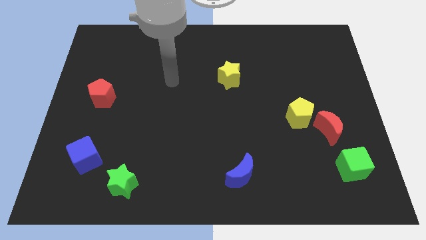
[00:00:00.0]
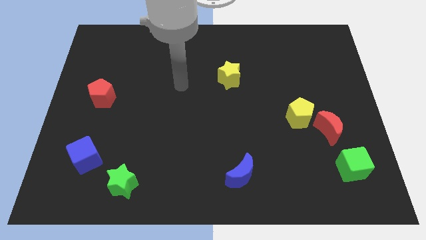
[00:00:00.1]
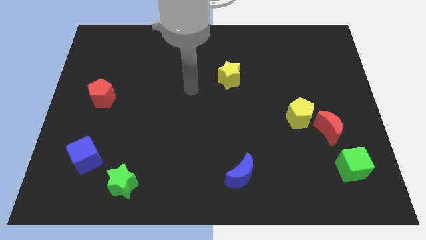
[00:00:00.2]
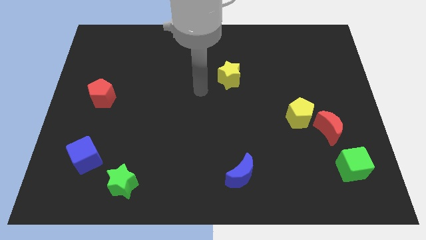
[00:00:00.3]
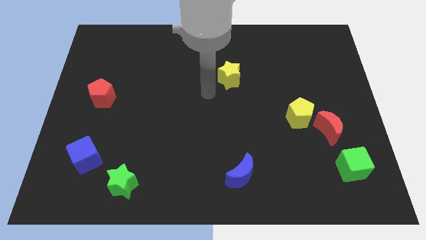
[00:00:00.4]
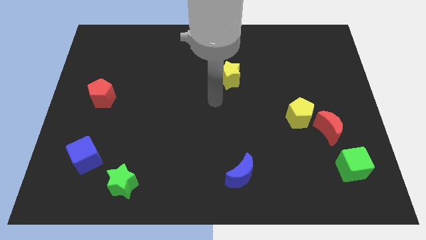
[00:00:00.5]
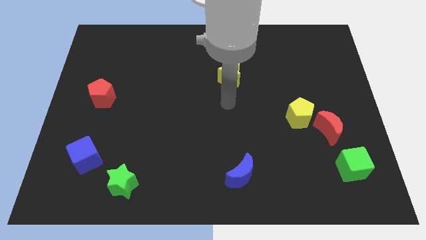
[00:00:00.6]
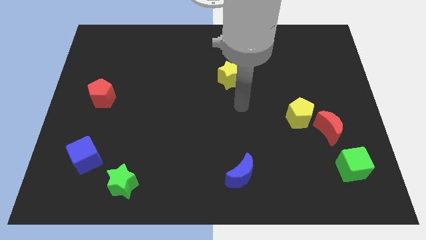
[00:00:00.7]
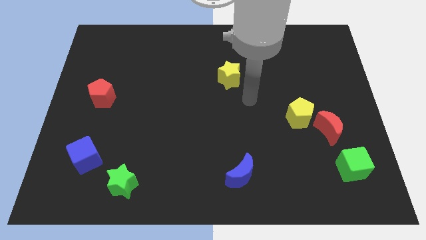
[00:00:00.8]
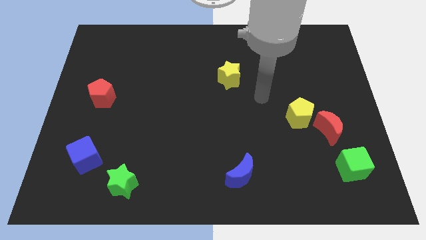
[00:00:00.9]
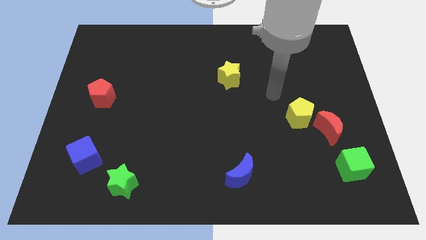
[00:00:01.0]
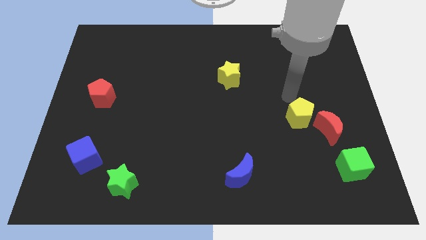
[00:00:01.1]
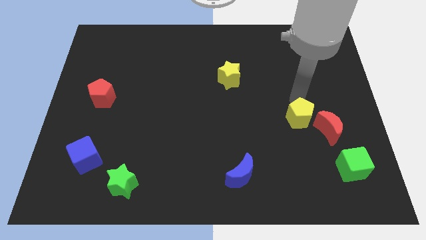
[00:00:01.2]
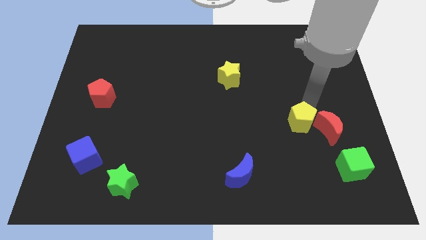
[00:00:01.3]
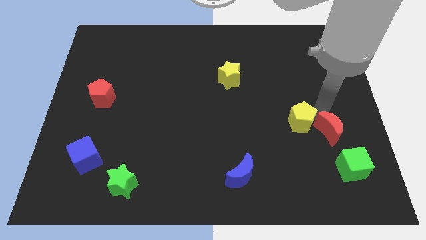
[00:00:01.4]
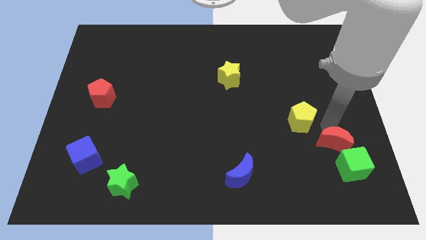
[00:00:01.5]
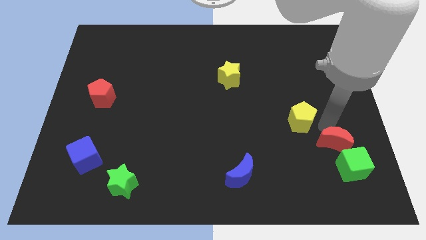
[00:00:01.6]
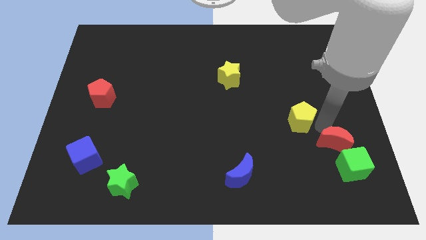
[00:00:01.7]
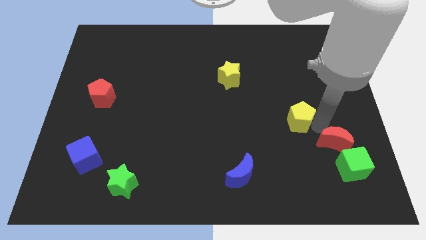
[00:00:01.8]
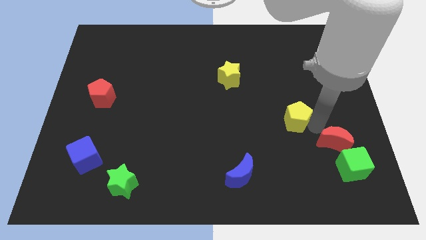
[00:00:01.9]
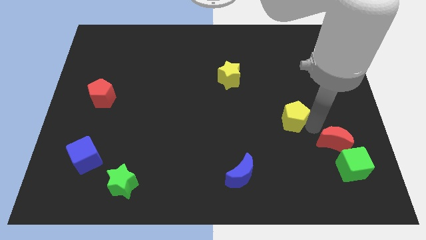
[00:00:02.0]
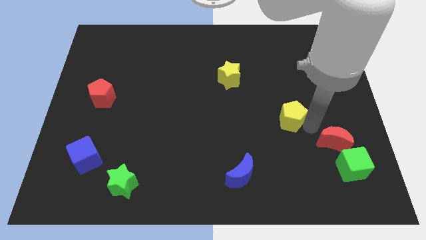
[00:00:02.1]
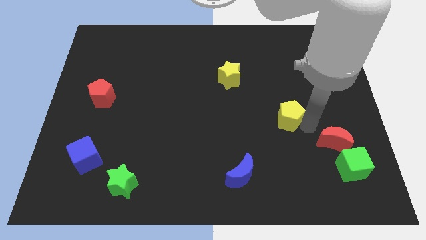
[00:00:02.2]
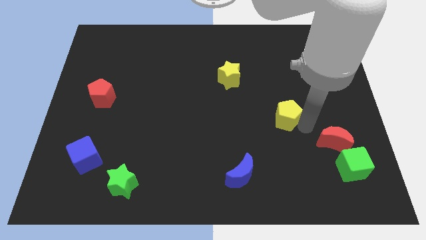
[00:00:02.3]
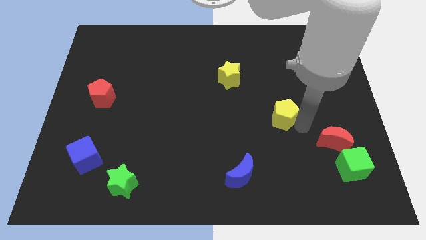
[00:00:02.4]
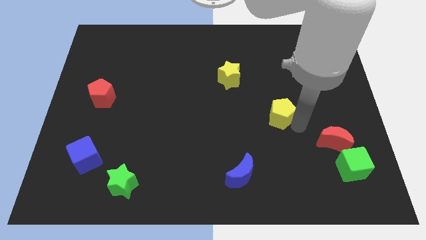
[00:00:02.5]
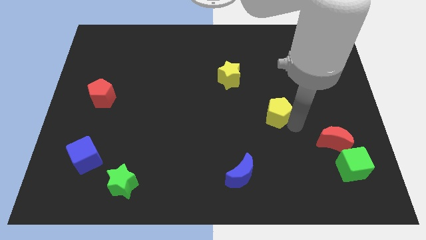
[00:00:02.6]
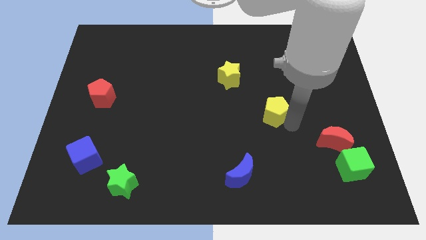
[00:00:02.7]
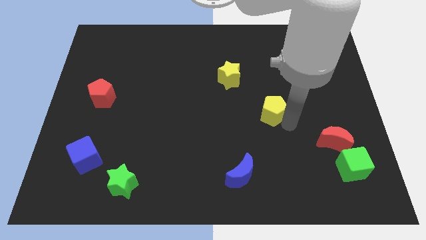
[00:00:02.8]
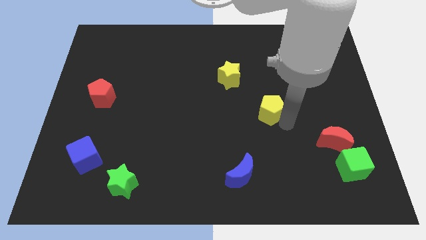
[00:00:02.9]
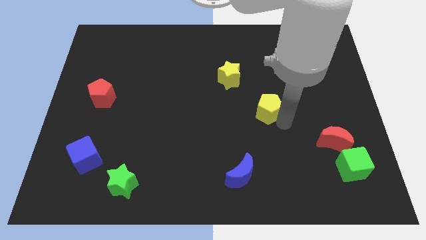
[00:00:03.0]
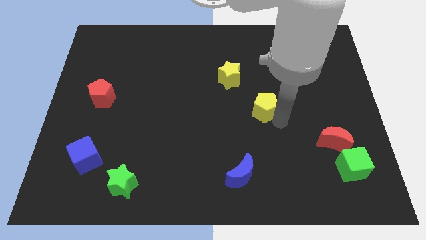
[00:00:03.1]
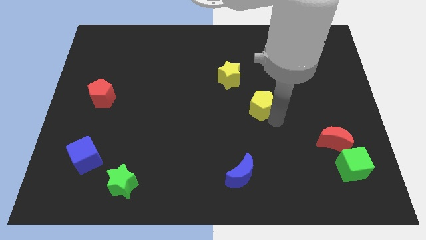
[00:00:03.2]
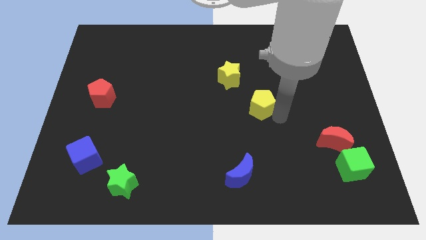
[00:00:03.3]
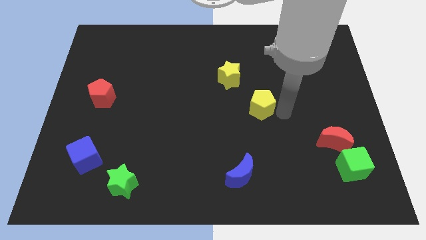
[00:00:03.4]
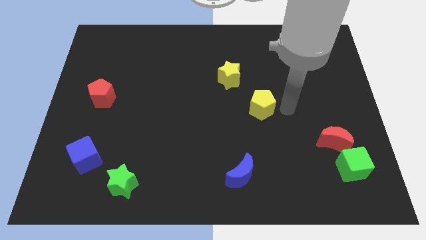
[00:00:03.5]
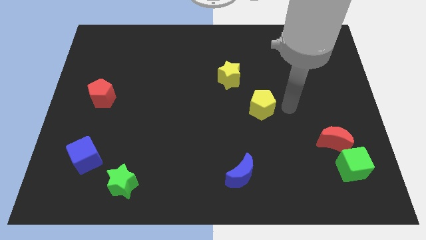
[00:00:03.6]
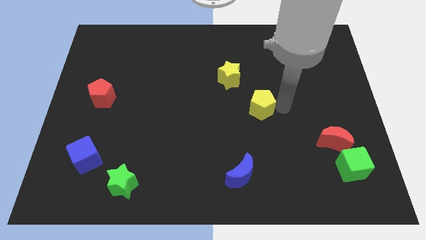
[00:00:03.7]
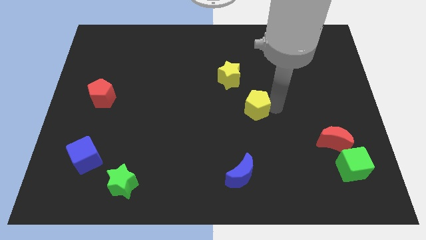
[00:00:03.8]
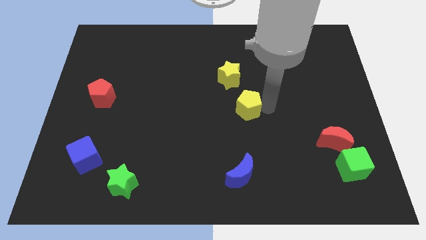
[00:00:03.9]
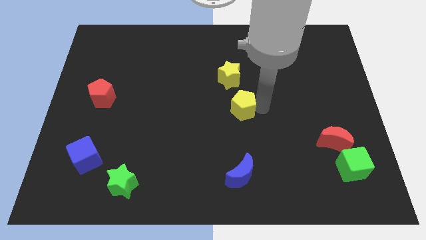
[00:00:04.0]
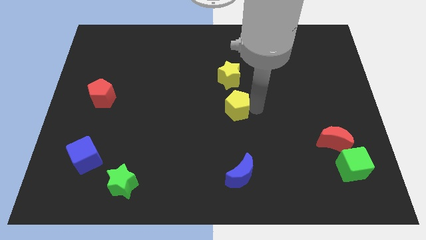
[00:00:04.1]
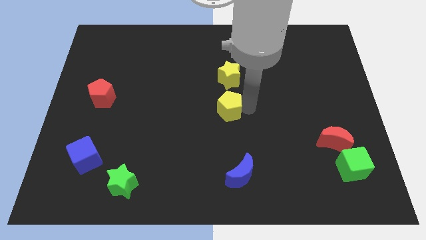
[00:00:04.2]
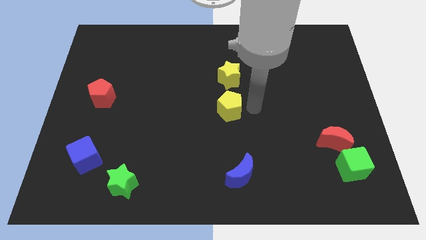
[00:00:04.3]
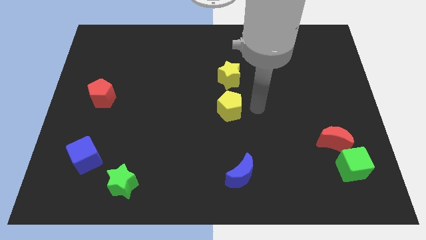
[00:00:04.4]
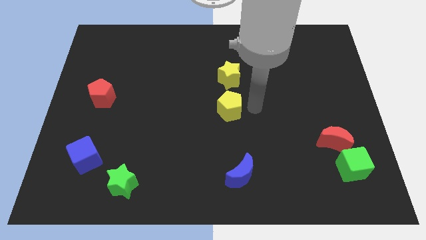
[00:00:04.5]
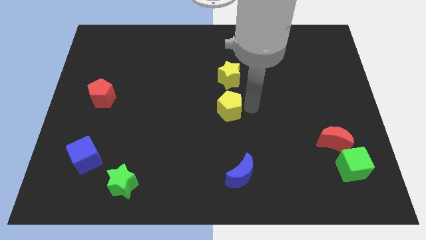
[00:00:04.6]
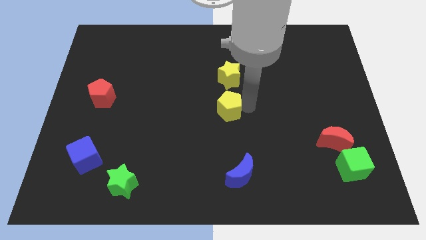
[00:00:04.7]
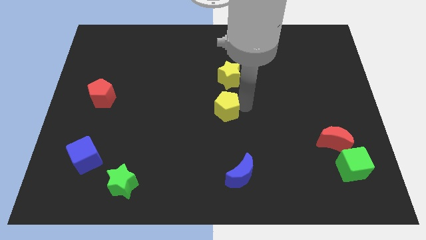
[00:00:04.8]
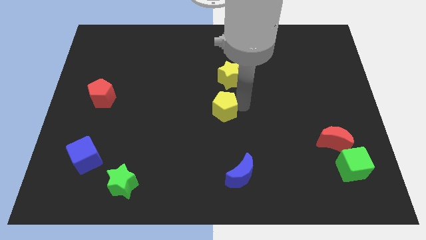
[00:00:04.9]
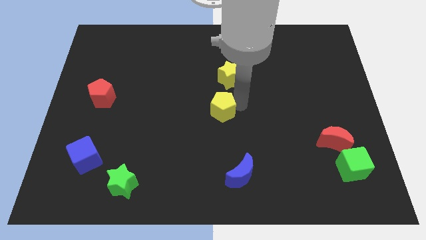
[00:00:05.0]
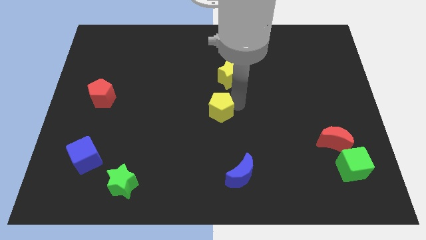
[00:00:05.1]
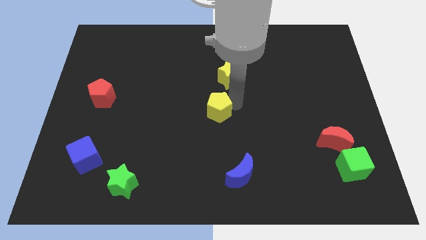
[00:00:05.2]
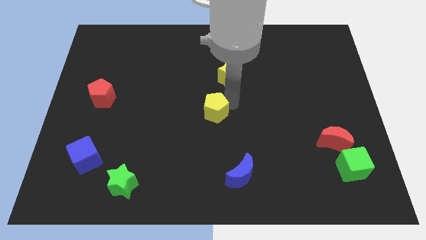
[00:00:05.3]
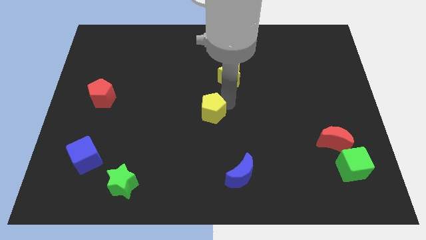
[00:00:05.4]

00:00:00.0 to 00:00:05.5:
push the yellow pentagon to the left

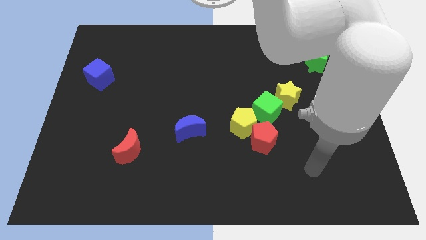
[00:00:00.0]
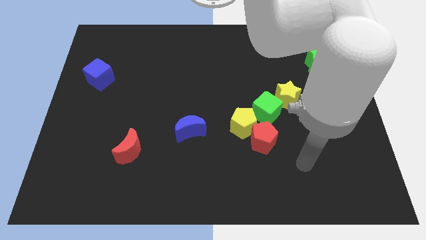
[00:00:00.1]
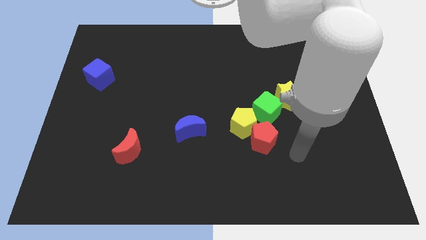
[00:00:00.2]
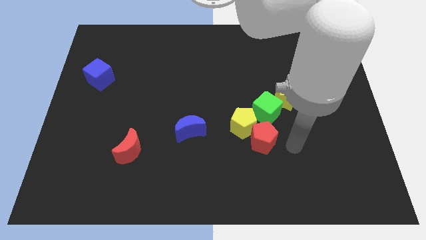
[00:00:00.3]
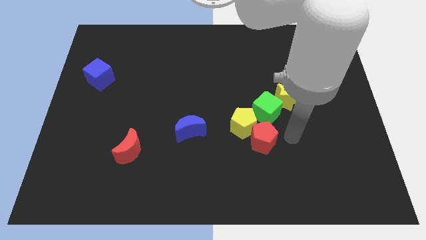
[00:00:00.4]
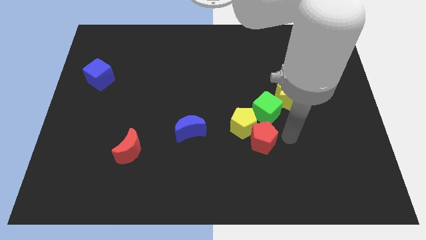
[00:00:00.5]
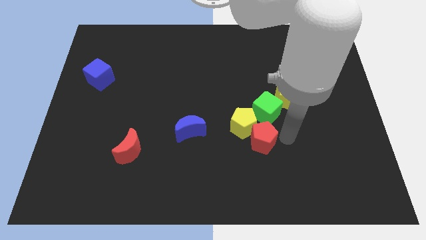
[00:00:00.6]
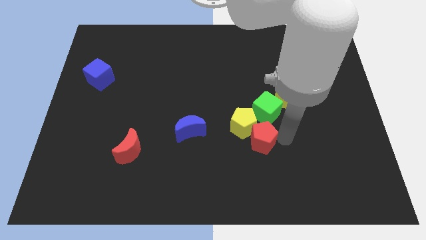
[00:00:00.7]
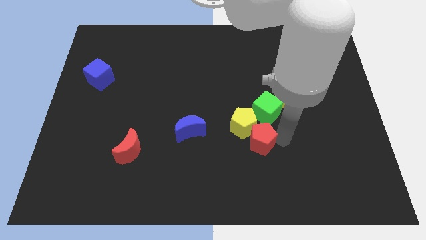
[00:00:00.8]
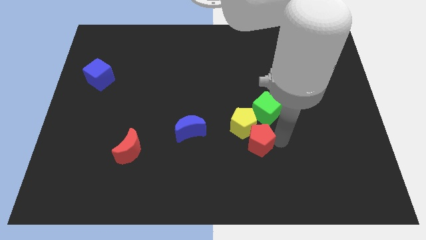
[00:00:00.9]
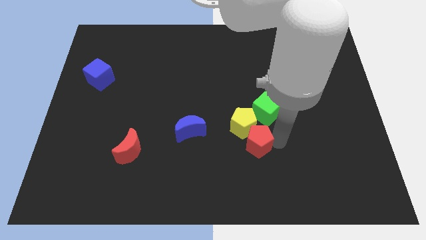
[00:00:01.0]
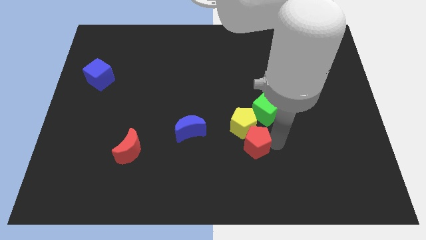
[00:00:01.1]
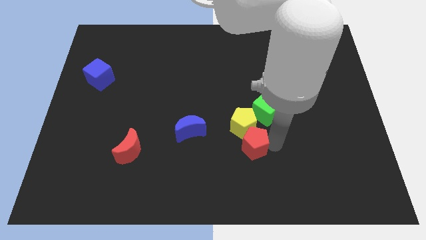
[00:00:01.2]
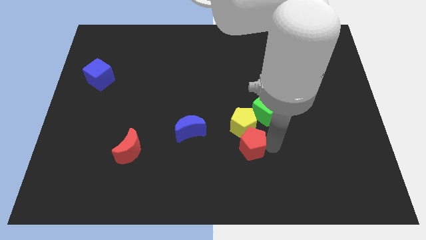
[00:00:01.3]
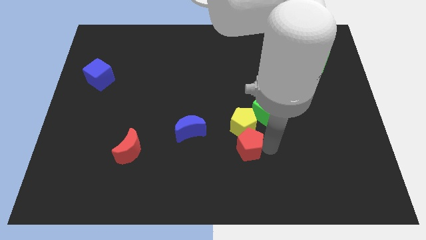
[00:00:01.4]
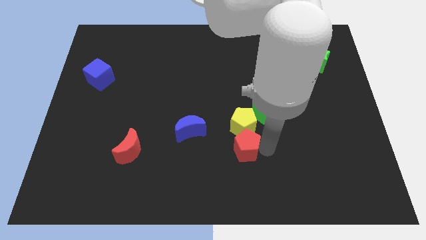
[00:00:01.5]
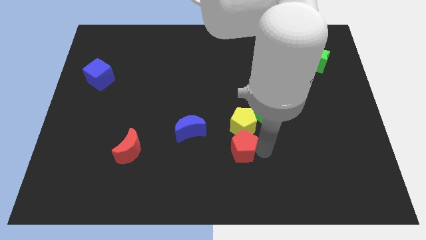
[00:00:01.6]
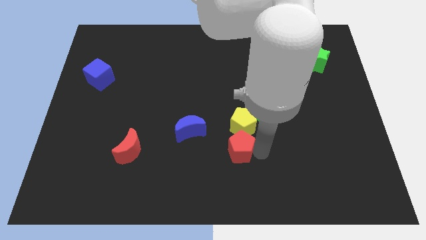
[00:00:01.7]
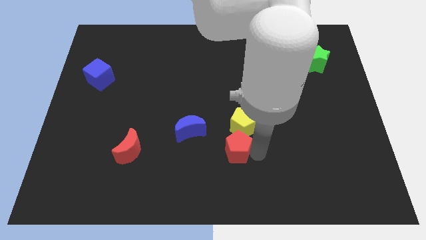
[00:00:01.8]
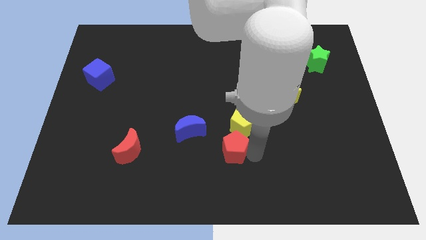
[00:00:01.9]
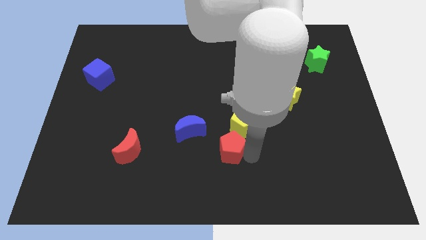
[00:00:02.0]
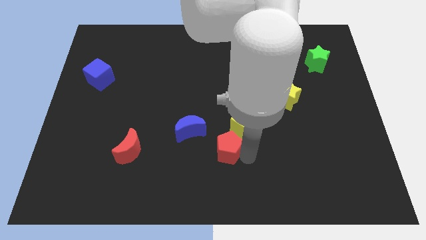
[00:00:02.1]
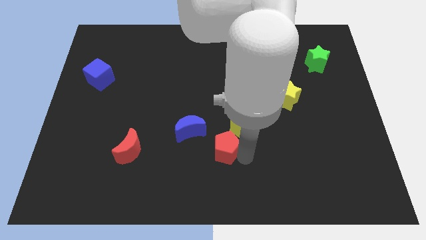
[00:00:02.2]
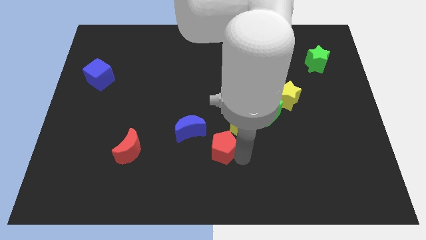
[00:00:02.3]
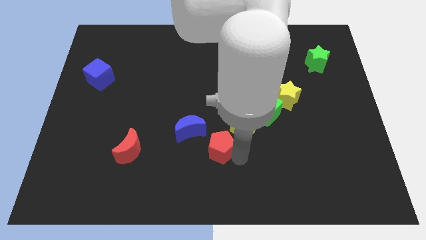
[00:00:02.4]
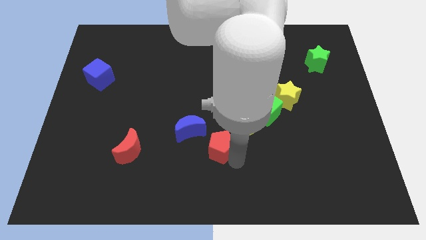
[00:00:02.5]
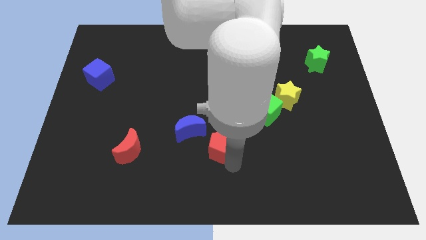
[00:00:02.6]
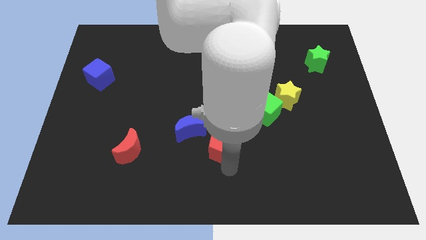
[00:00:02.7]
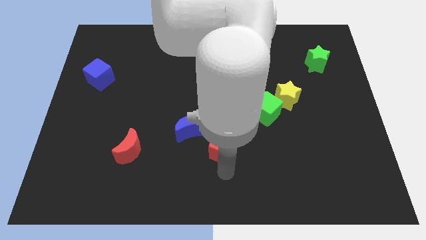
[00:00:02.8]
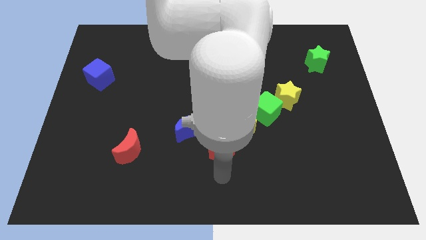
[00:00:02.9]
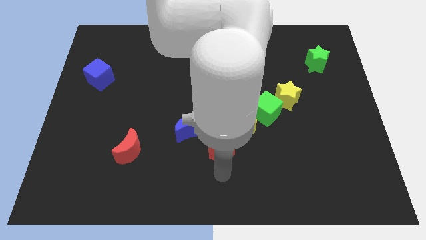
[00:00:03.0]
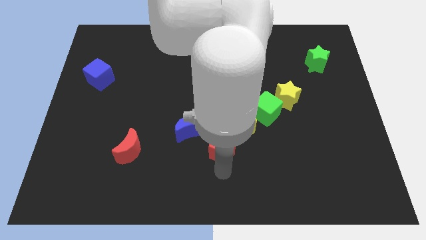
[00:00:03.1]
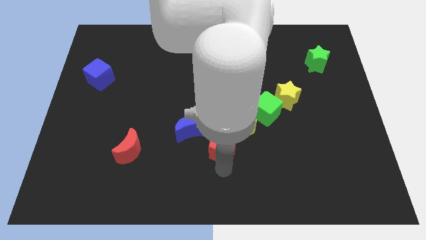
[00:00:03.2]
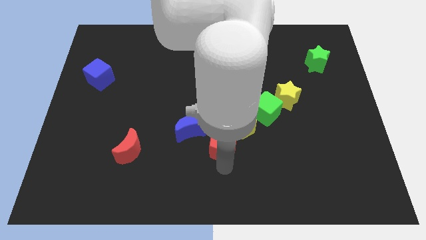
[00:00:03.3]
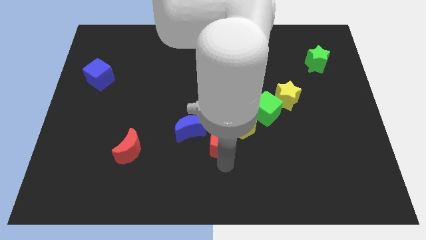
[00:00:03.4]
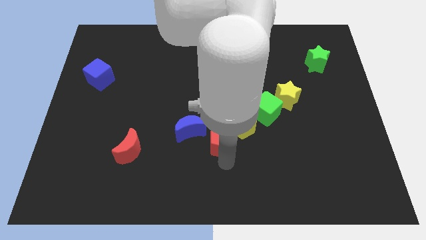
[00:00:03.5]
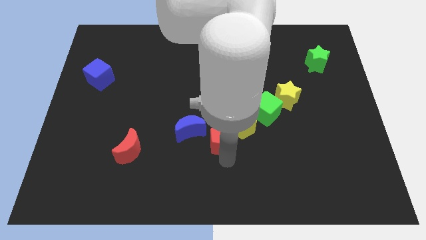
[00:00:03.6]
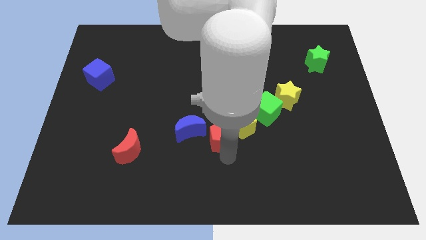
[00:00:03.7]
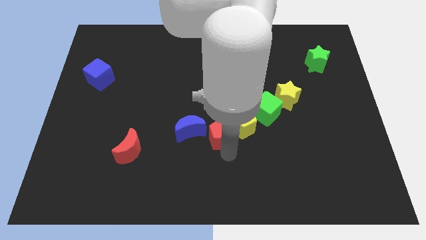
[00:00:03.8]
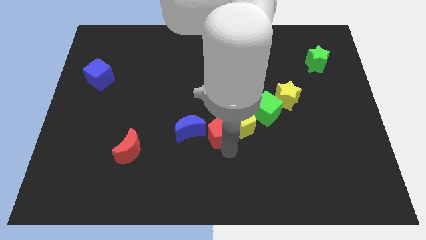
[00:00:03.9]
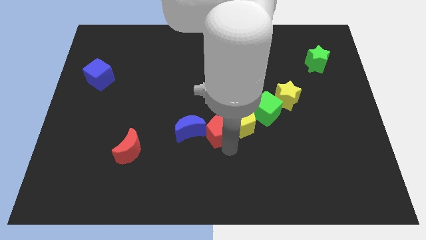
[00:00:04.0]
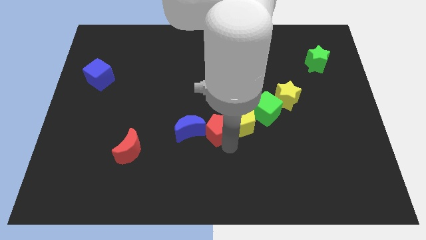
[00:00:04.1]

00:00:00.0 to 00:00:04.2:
push the red pentagon a little bit up and left
